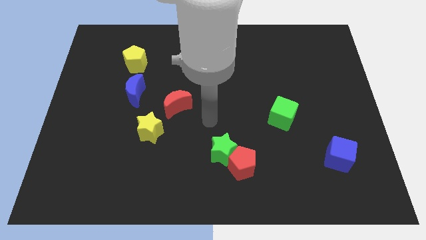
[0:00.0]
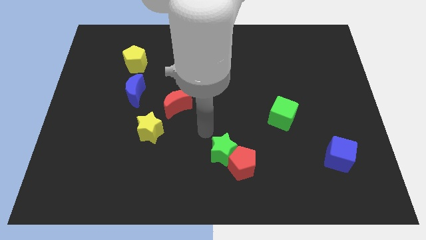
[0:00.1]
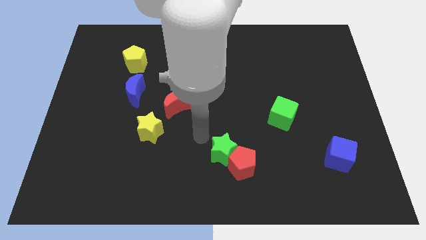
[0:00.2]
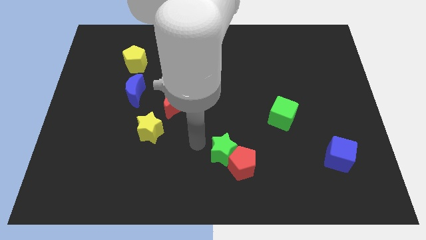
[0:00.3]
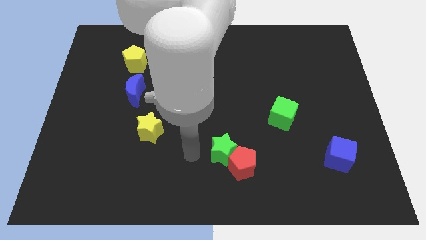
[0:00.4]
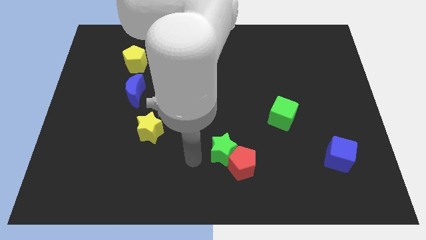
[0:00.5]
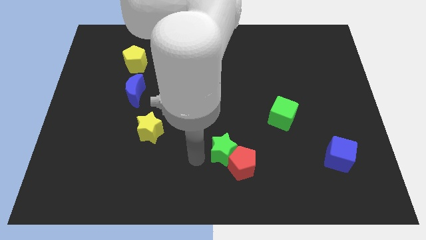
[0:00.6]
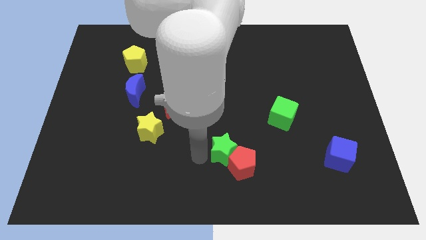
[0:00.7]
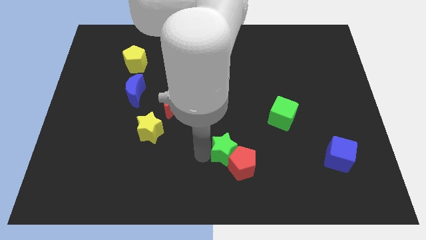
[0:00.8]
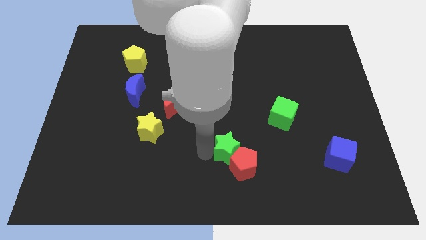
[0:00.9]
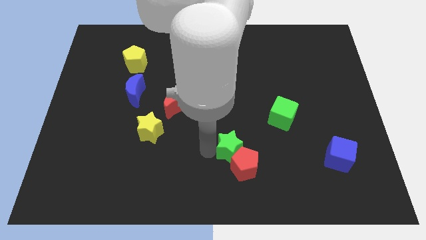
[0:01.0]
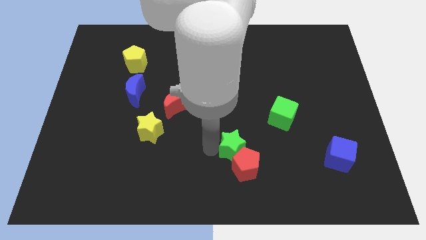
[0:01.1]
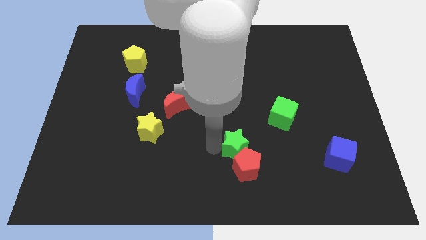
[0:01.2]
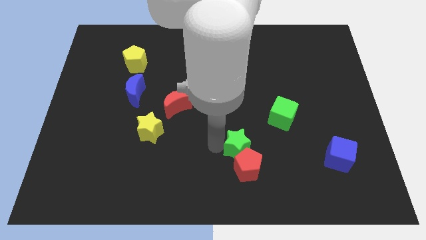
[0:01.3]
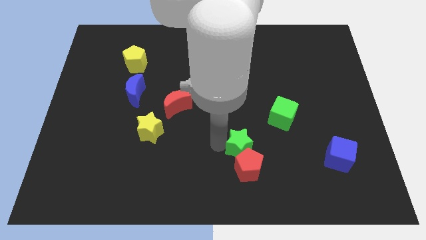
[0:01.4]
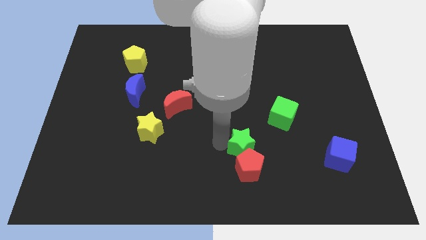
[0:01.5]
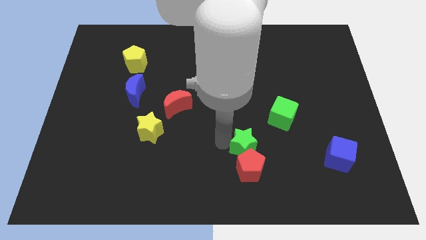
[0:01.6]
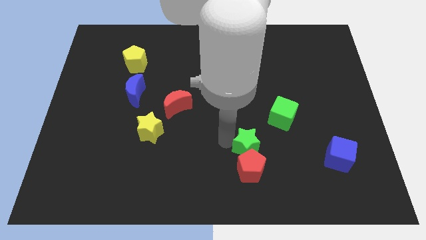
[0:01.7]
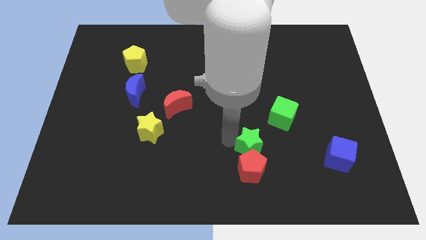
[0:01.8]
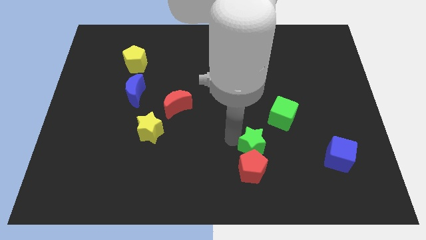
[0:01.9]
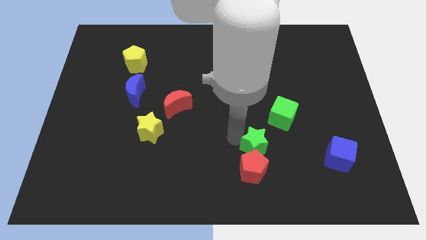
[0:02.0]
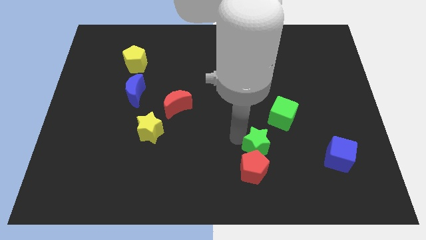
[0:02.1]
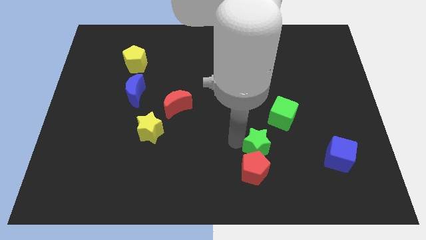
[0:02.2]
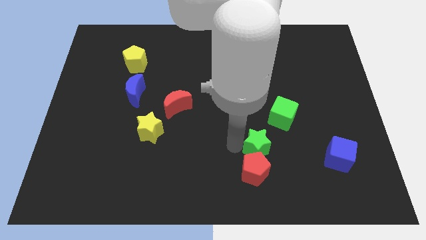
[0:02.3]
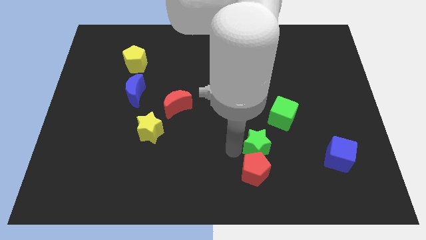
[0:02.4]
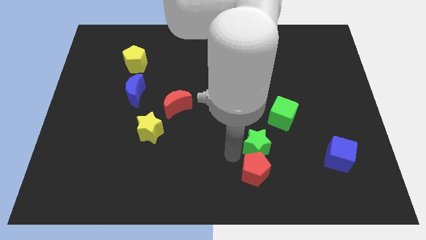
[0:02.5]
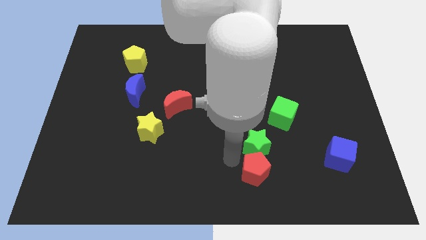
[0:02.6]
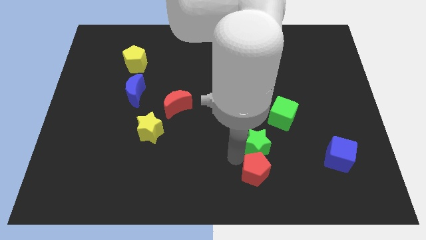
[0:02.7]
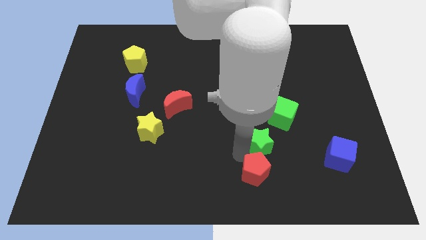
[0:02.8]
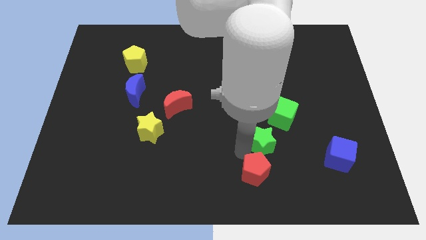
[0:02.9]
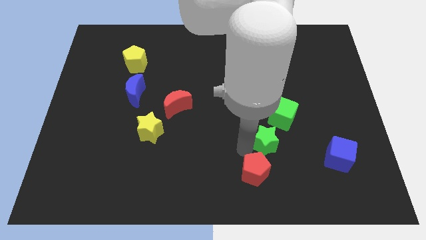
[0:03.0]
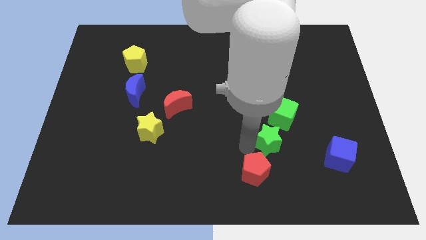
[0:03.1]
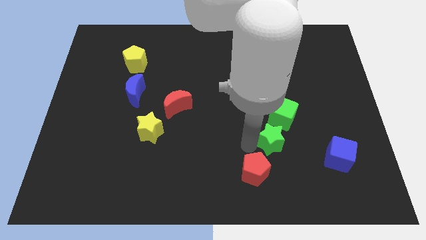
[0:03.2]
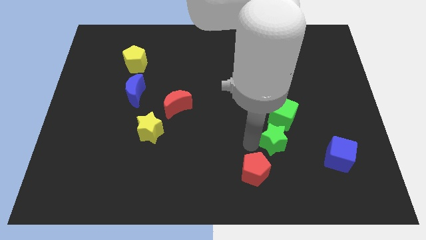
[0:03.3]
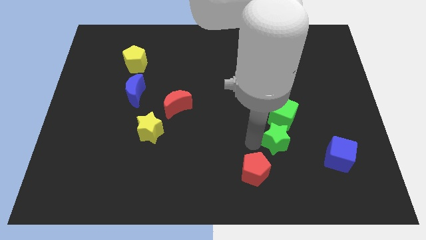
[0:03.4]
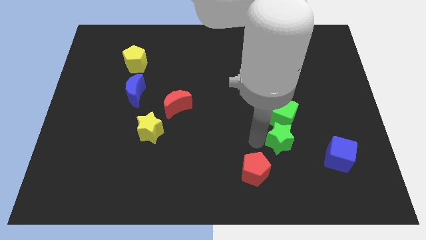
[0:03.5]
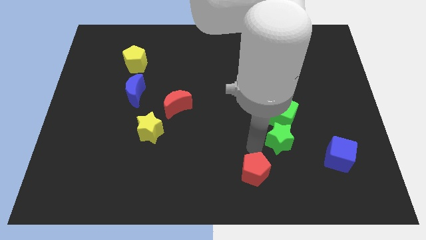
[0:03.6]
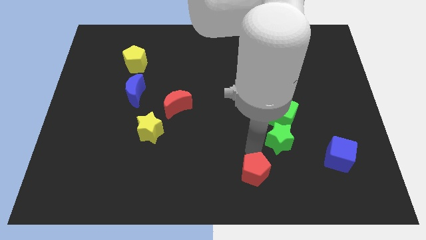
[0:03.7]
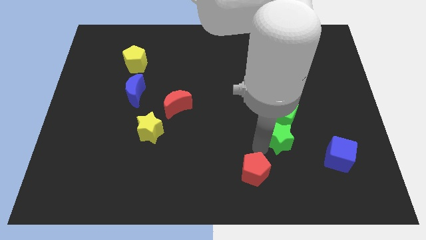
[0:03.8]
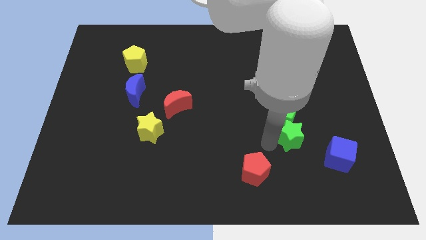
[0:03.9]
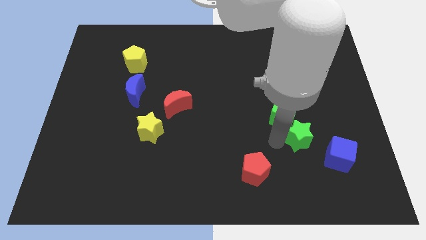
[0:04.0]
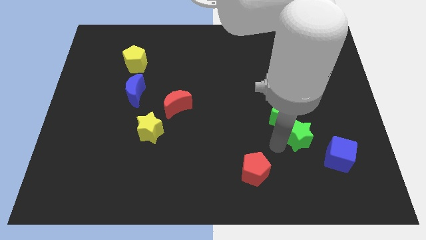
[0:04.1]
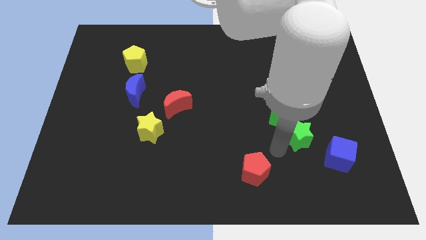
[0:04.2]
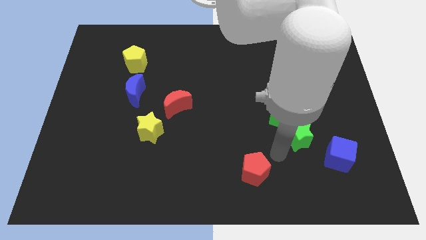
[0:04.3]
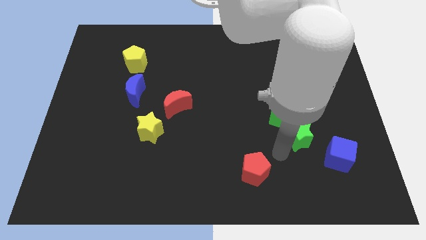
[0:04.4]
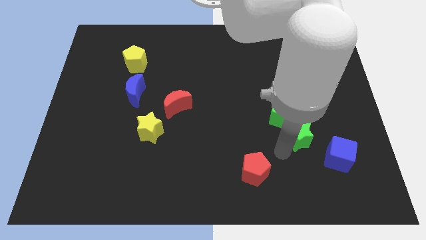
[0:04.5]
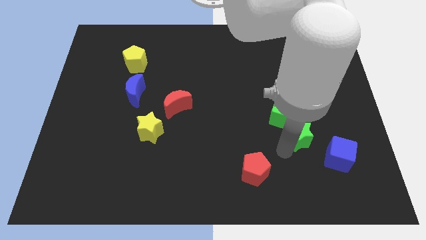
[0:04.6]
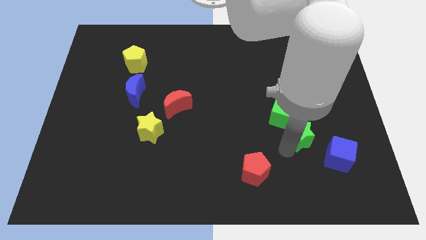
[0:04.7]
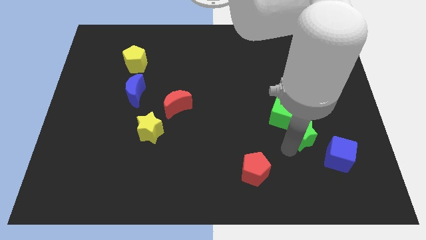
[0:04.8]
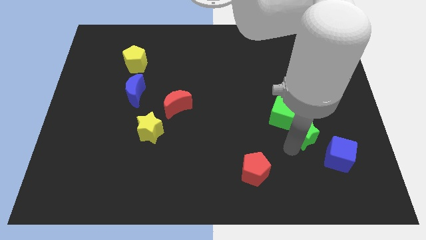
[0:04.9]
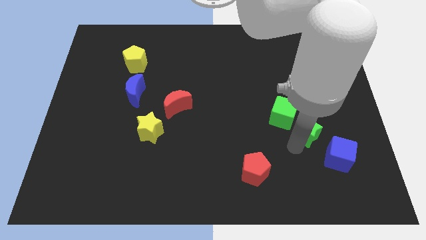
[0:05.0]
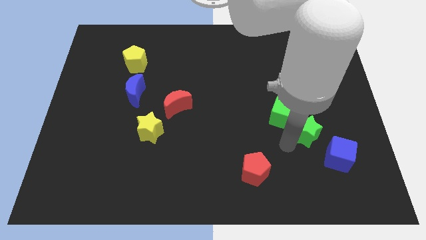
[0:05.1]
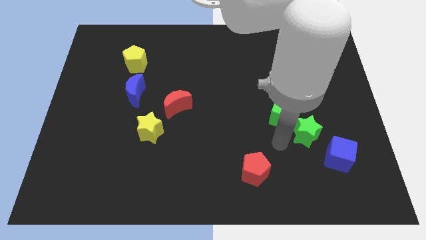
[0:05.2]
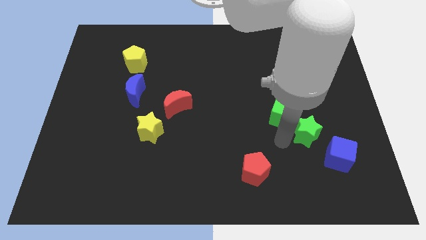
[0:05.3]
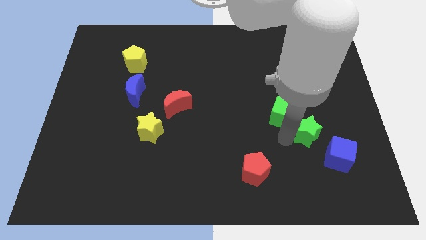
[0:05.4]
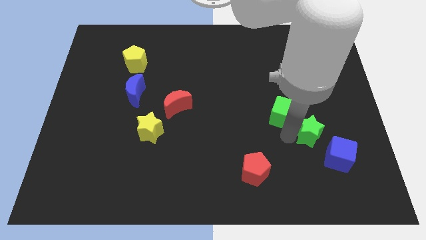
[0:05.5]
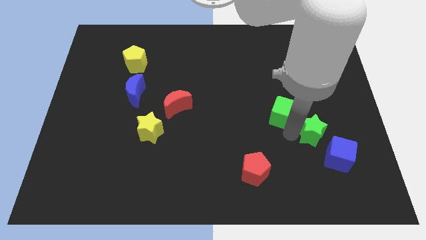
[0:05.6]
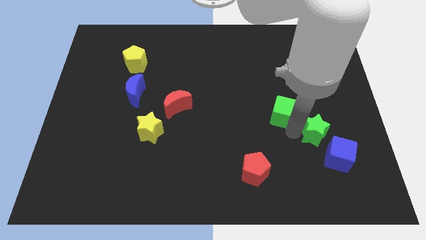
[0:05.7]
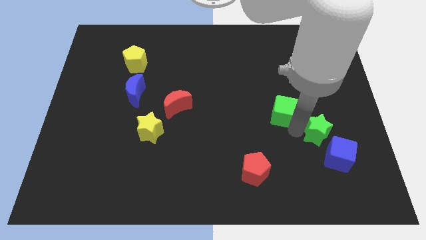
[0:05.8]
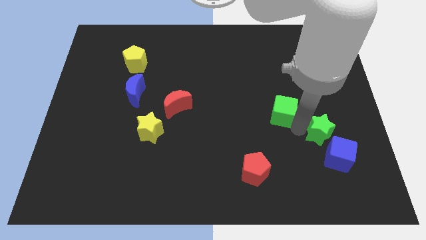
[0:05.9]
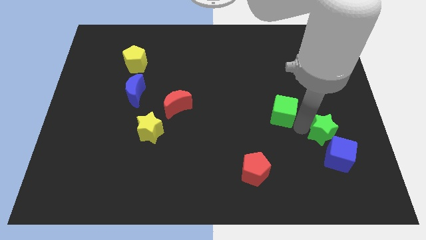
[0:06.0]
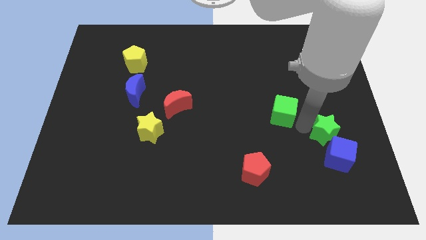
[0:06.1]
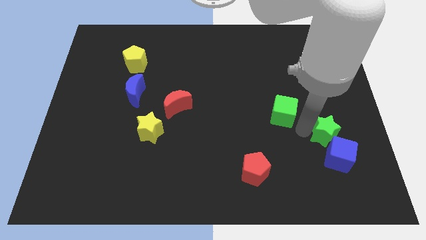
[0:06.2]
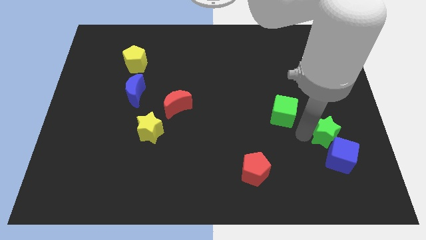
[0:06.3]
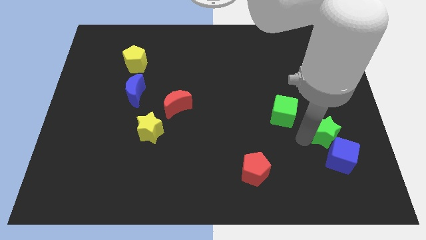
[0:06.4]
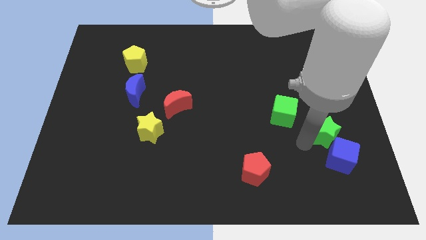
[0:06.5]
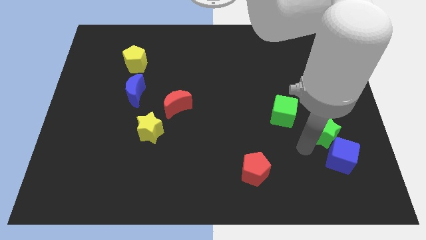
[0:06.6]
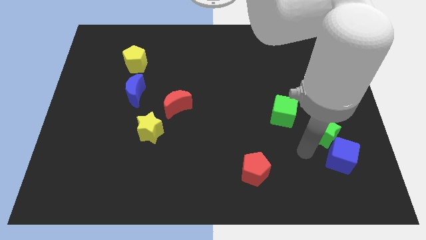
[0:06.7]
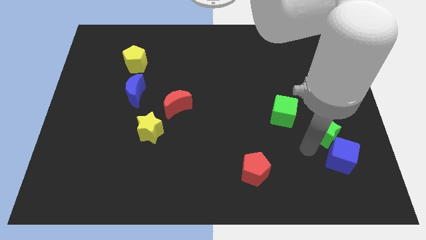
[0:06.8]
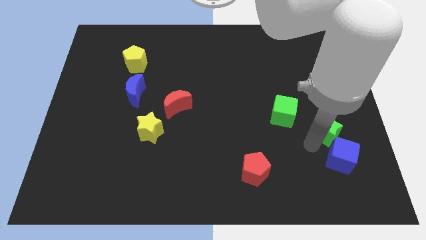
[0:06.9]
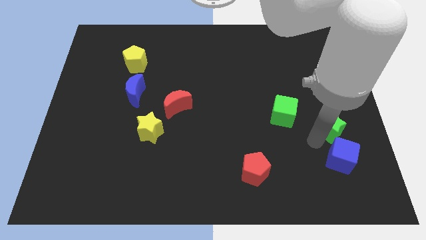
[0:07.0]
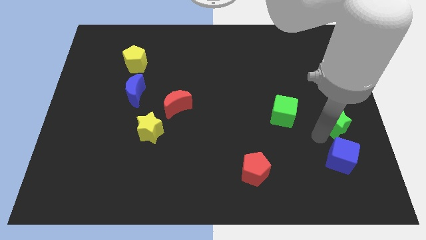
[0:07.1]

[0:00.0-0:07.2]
slide the green star to the right side of the board
